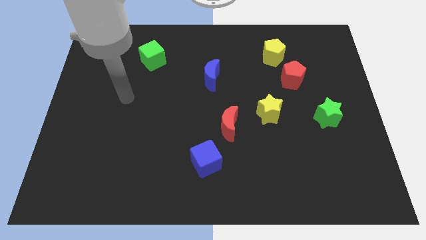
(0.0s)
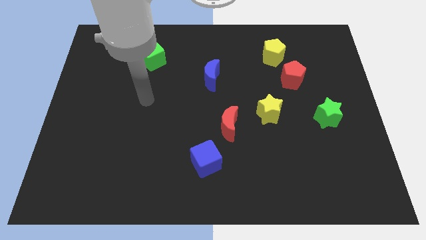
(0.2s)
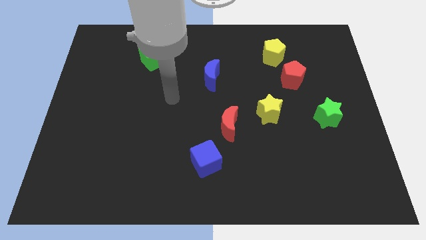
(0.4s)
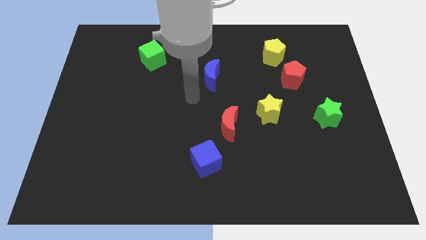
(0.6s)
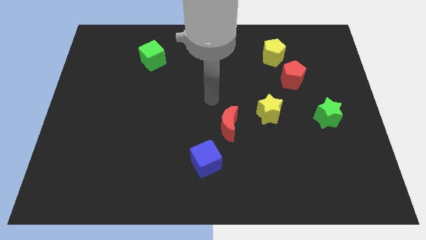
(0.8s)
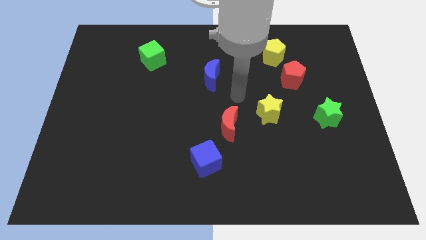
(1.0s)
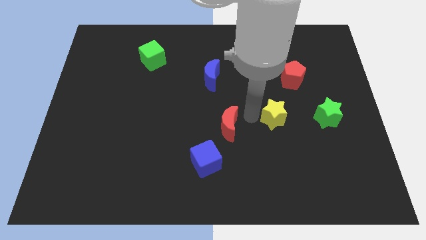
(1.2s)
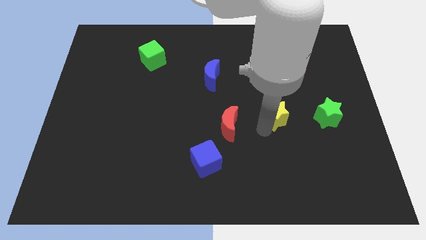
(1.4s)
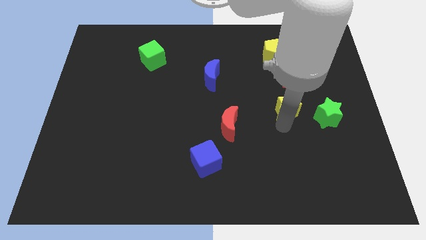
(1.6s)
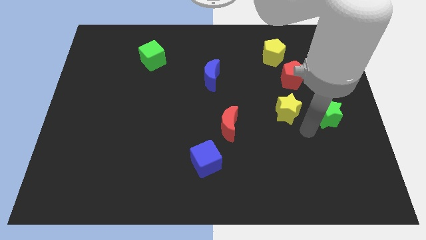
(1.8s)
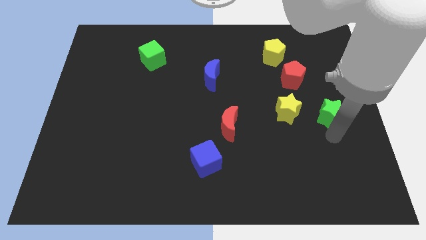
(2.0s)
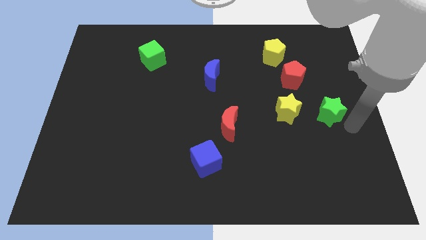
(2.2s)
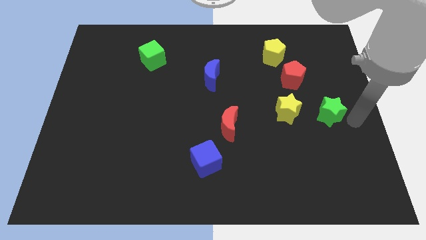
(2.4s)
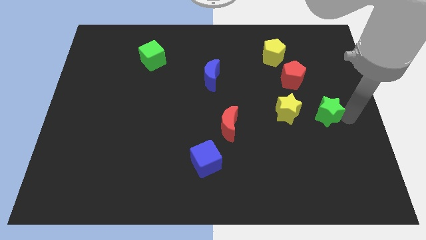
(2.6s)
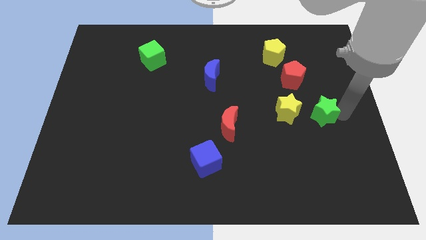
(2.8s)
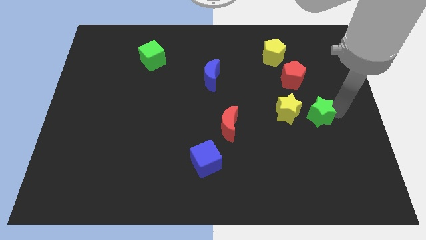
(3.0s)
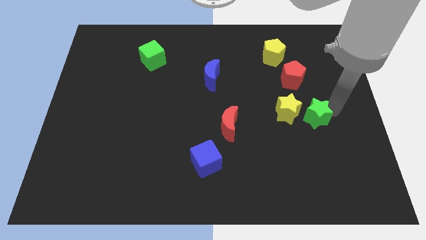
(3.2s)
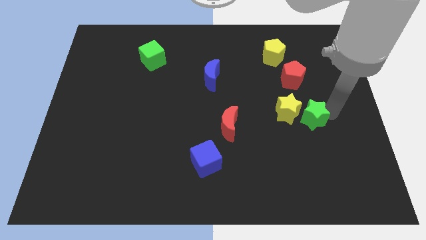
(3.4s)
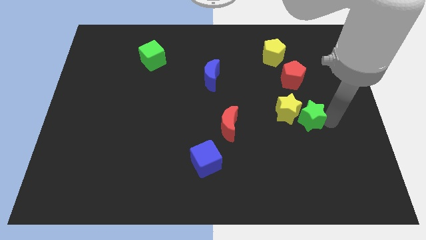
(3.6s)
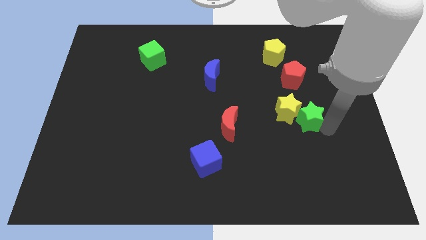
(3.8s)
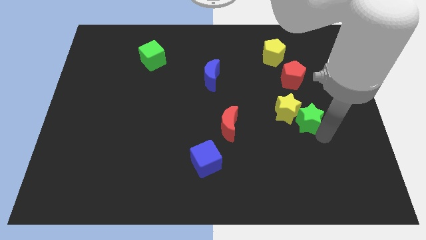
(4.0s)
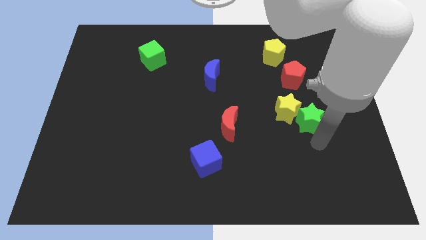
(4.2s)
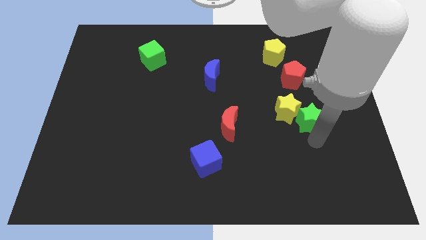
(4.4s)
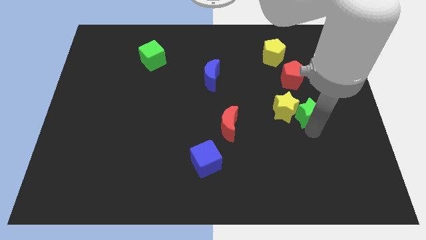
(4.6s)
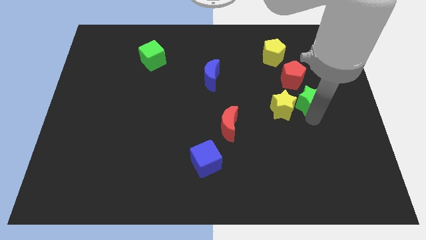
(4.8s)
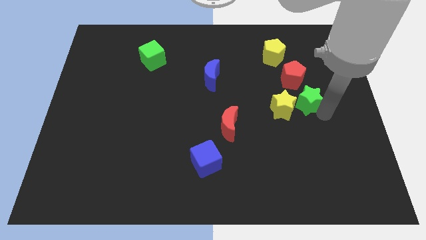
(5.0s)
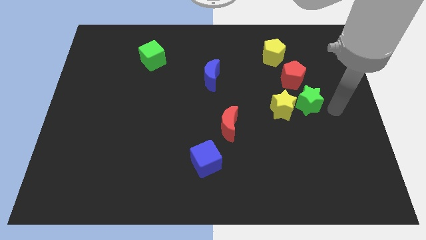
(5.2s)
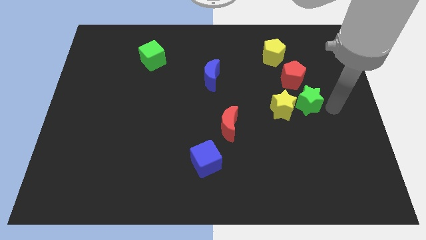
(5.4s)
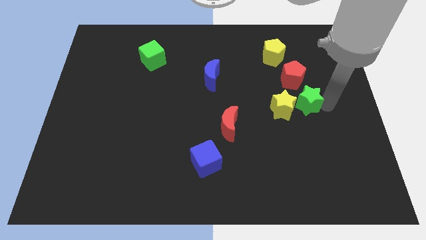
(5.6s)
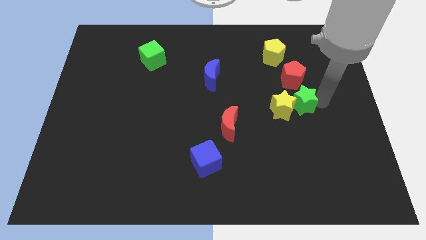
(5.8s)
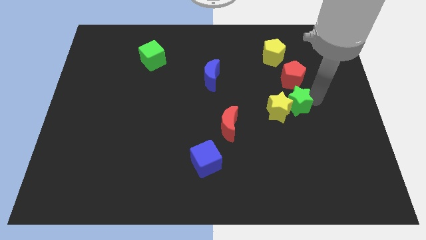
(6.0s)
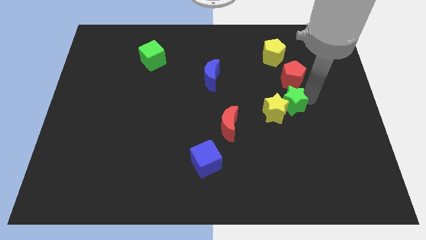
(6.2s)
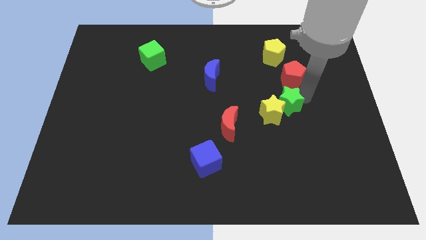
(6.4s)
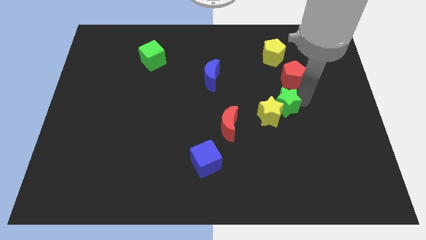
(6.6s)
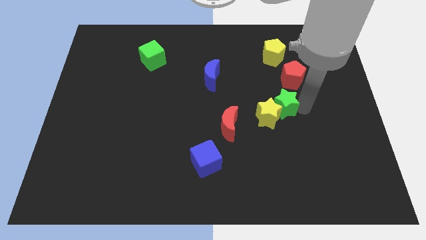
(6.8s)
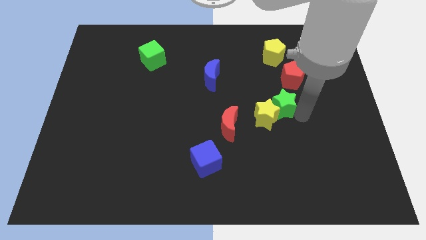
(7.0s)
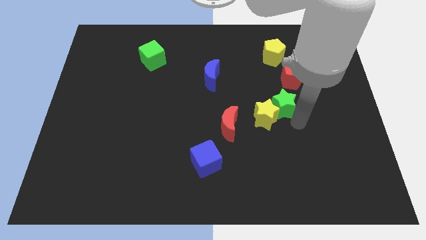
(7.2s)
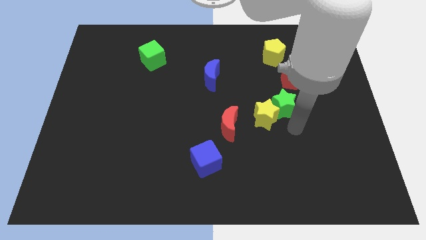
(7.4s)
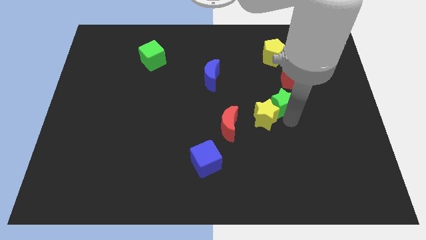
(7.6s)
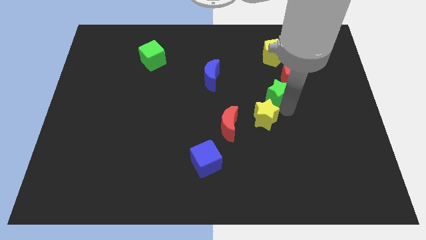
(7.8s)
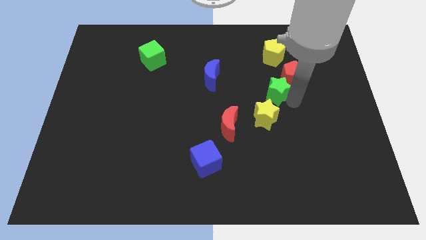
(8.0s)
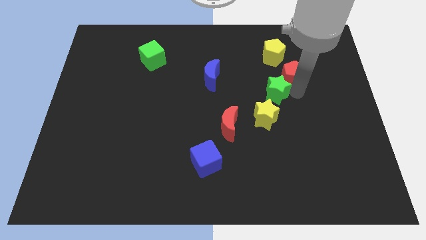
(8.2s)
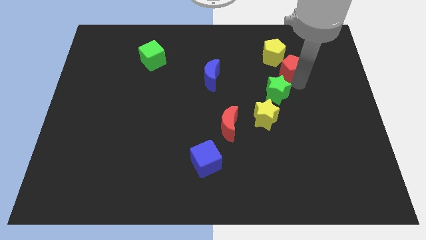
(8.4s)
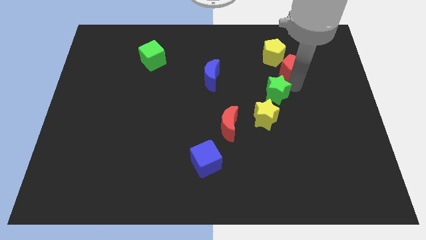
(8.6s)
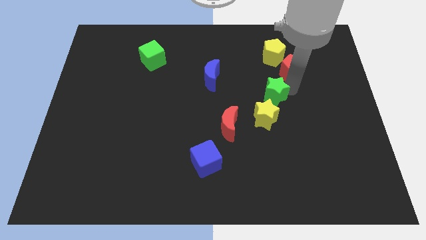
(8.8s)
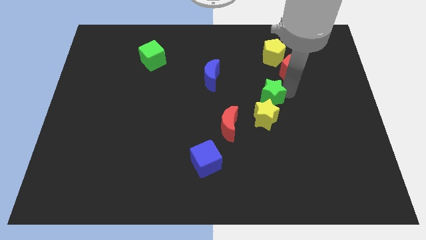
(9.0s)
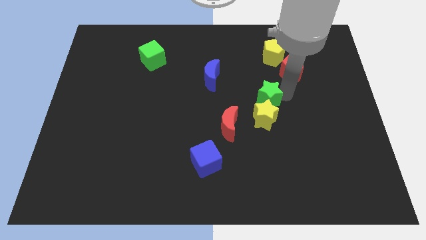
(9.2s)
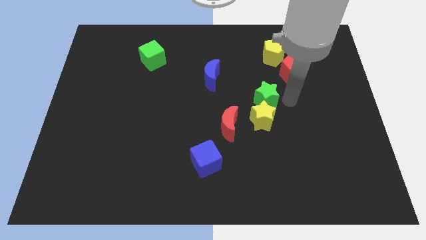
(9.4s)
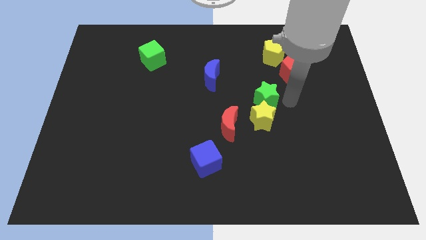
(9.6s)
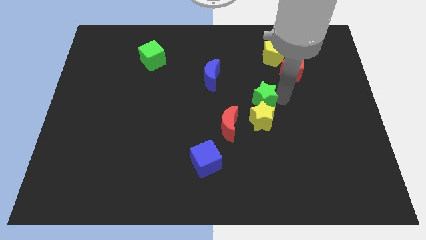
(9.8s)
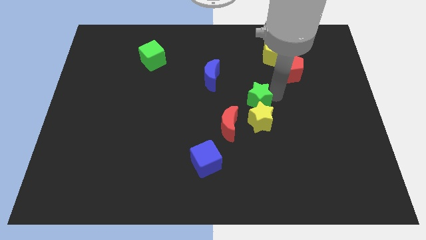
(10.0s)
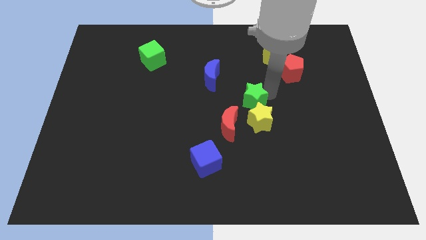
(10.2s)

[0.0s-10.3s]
put the green star to the bottom right side of the blue moon

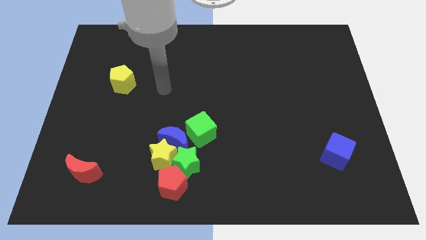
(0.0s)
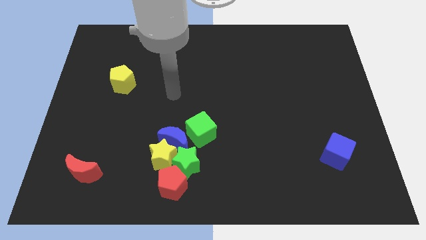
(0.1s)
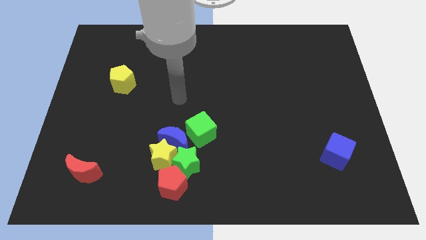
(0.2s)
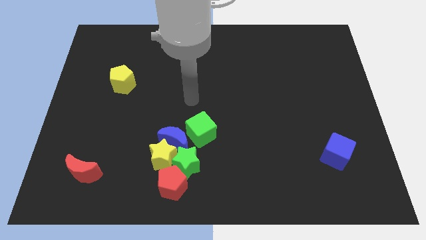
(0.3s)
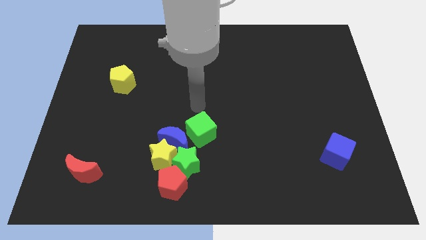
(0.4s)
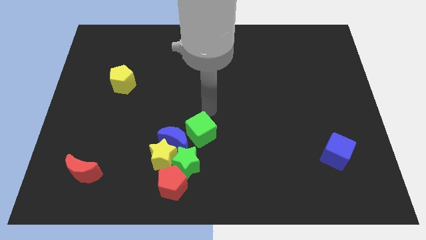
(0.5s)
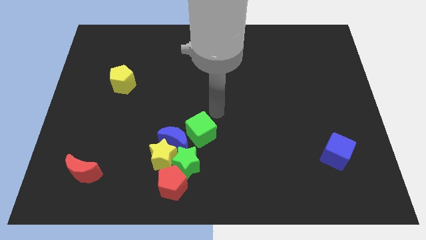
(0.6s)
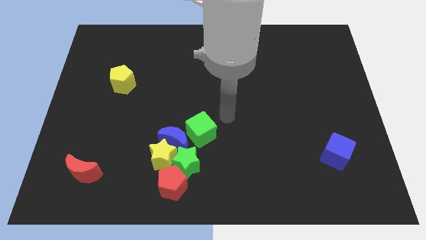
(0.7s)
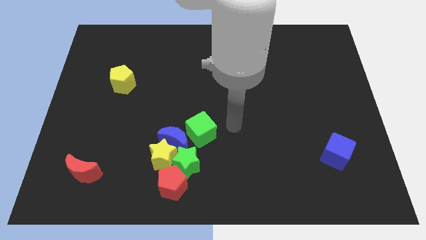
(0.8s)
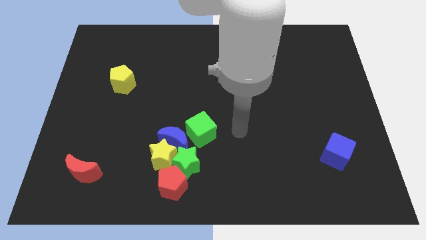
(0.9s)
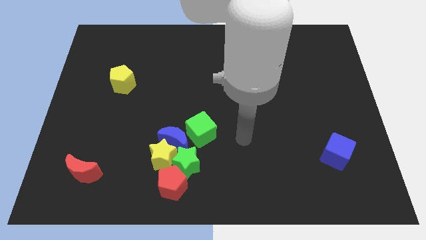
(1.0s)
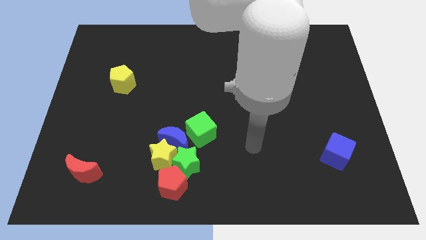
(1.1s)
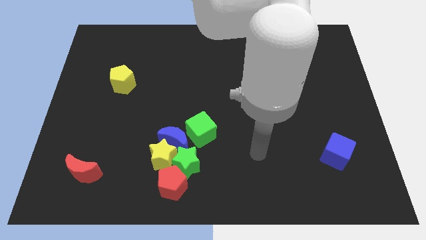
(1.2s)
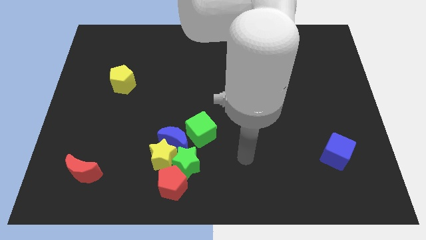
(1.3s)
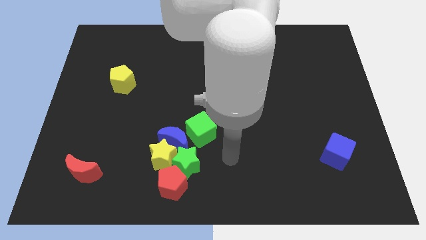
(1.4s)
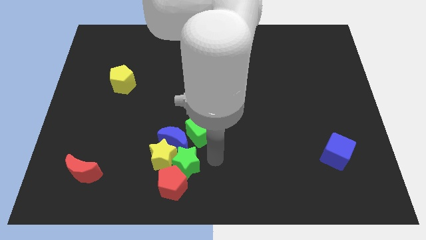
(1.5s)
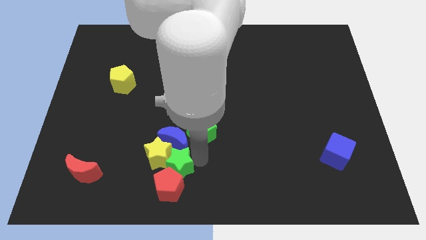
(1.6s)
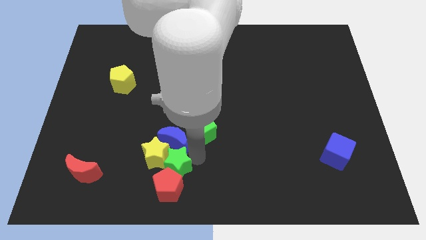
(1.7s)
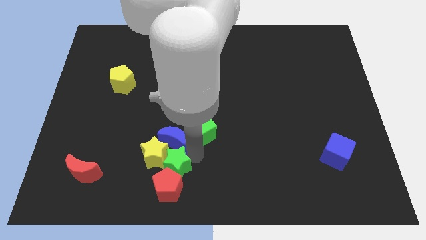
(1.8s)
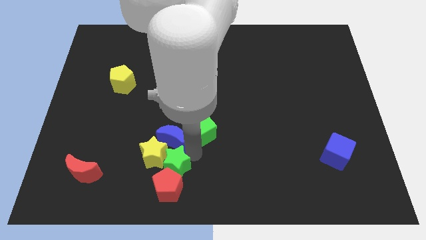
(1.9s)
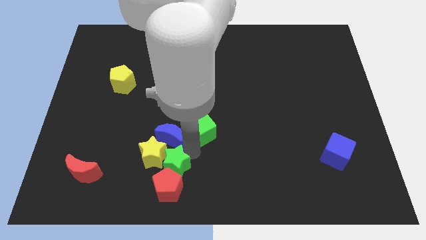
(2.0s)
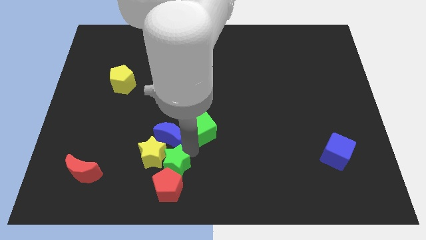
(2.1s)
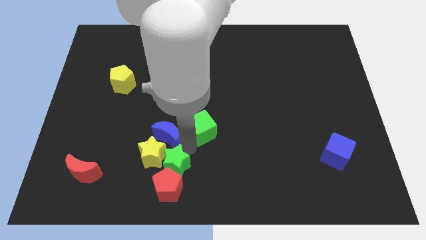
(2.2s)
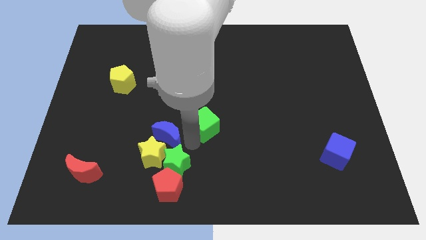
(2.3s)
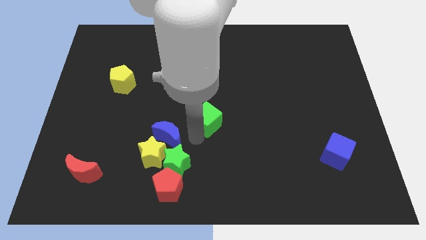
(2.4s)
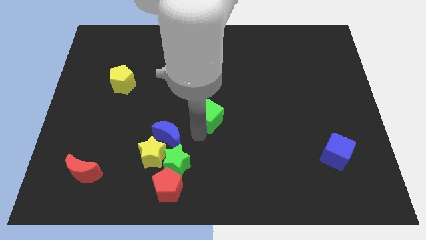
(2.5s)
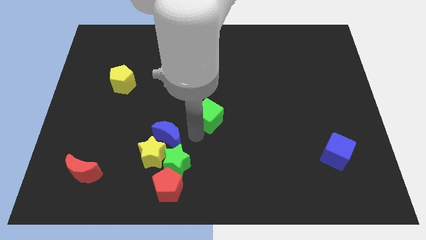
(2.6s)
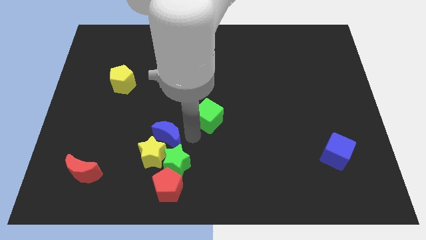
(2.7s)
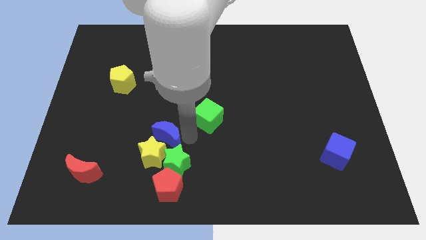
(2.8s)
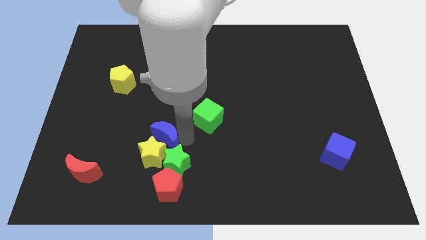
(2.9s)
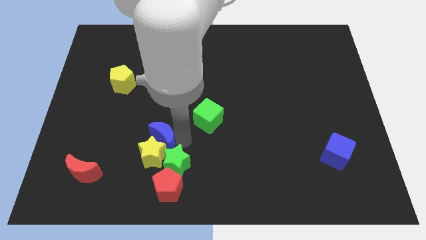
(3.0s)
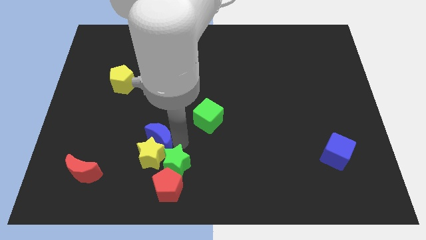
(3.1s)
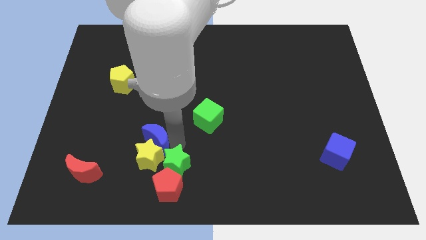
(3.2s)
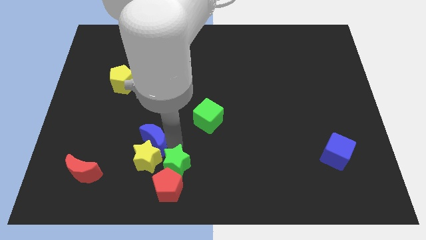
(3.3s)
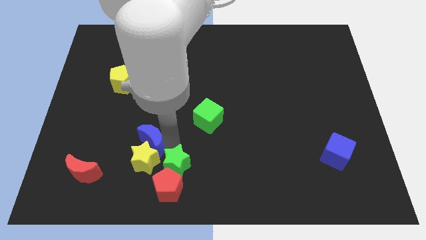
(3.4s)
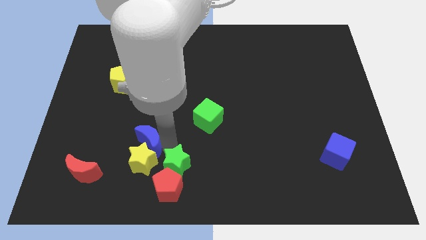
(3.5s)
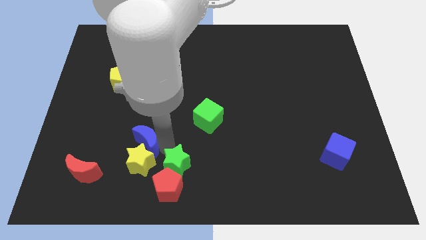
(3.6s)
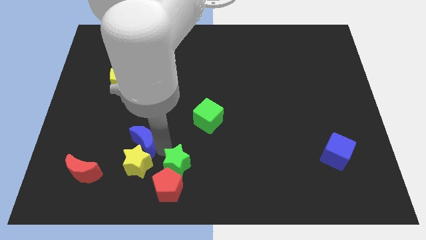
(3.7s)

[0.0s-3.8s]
put the blue moon just left of the green star
